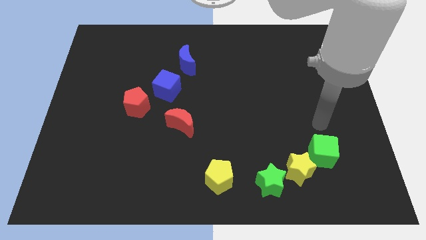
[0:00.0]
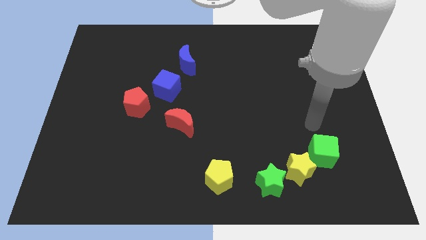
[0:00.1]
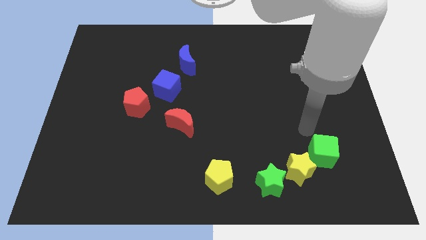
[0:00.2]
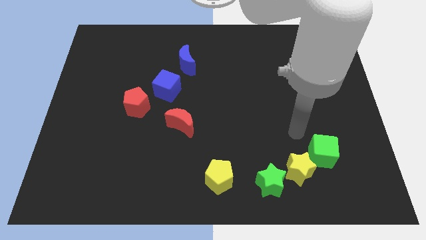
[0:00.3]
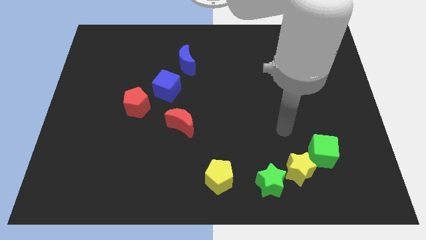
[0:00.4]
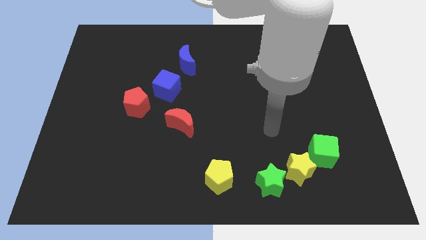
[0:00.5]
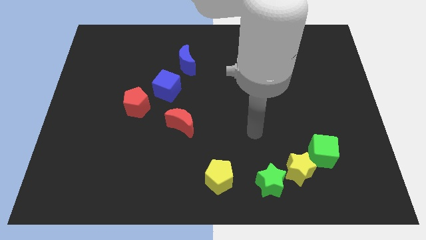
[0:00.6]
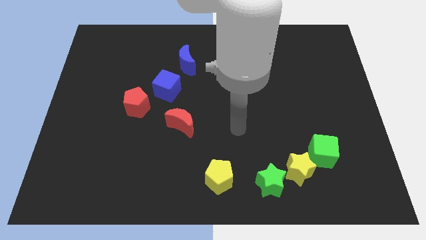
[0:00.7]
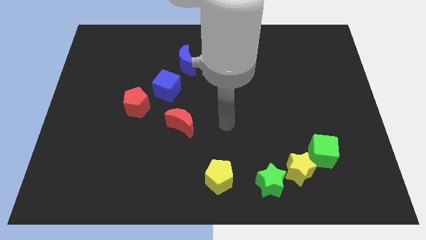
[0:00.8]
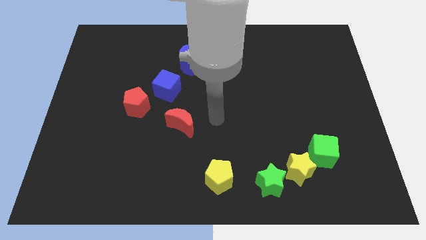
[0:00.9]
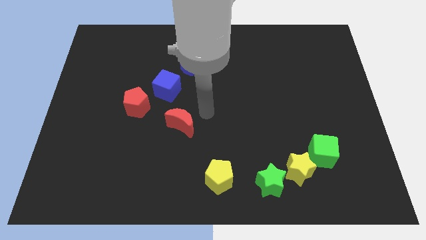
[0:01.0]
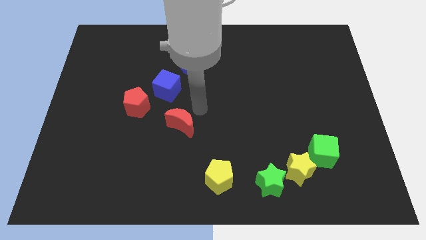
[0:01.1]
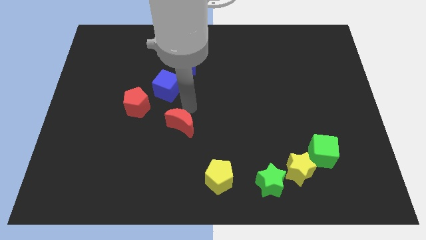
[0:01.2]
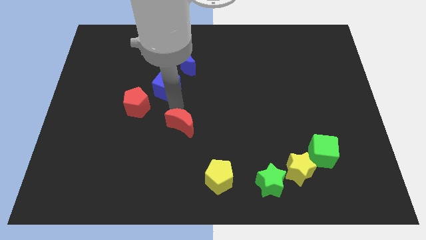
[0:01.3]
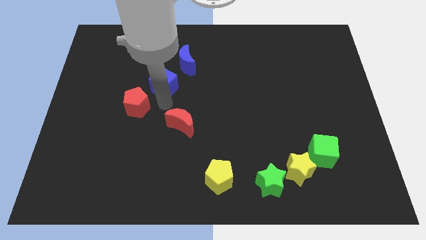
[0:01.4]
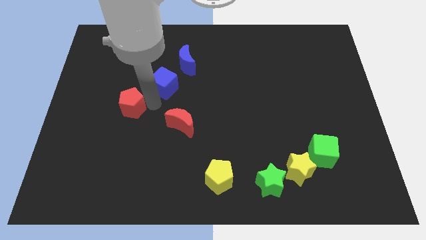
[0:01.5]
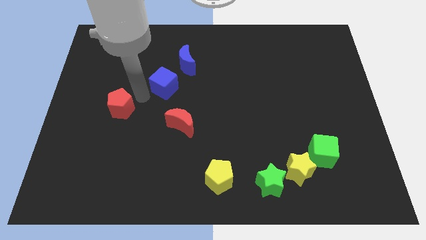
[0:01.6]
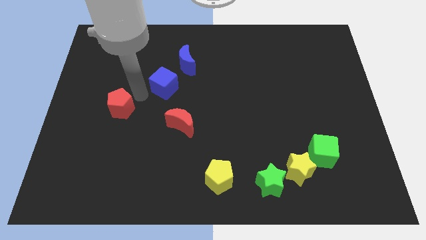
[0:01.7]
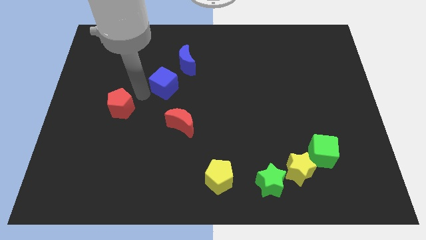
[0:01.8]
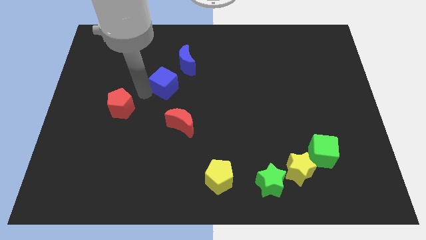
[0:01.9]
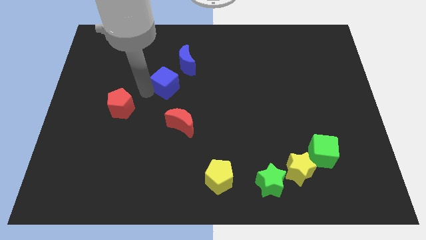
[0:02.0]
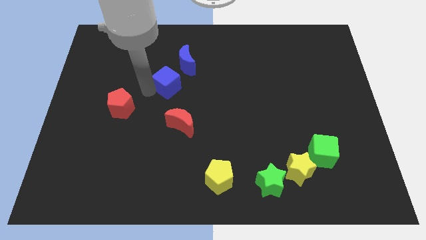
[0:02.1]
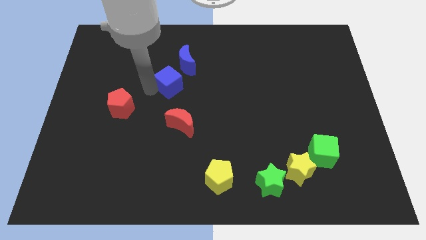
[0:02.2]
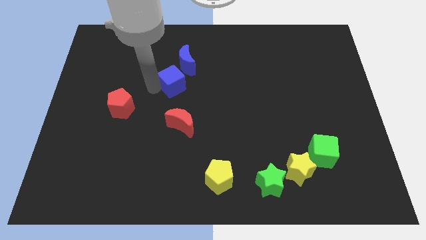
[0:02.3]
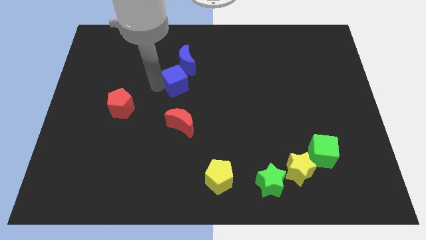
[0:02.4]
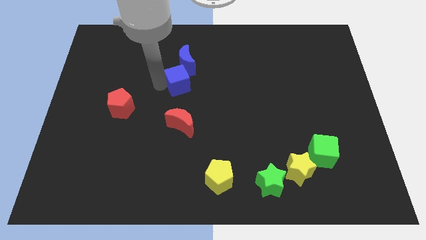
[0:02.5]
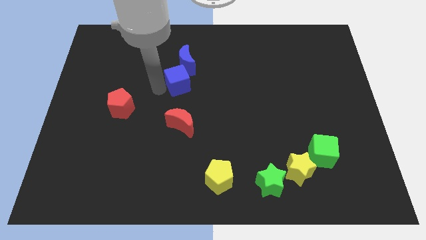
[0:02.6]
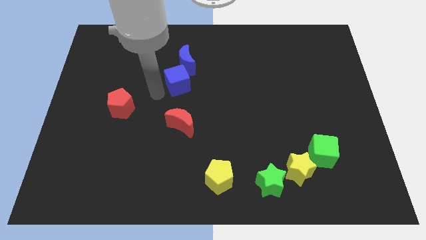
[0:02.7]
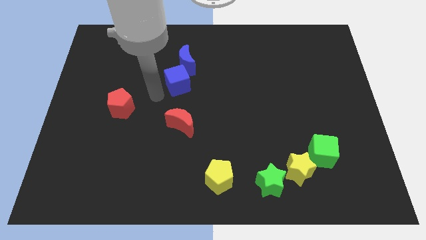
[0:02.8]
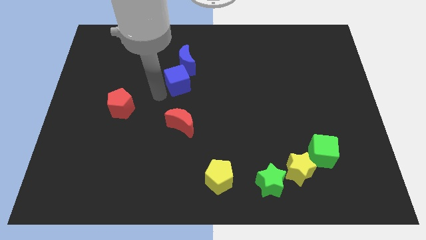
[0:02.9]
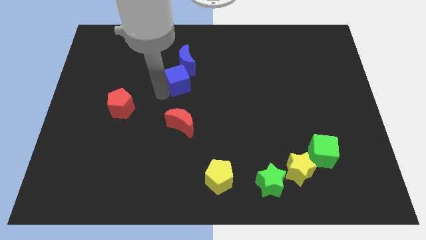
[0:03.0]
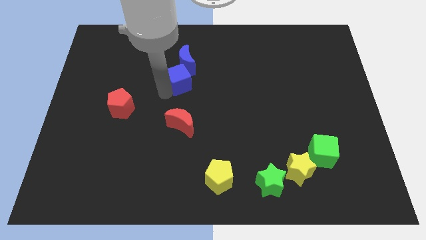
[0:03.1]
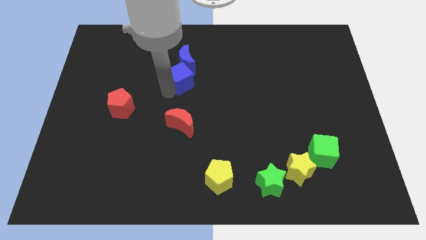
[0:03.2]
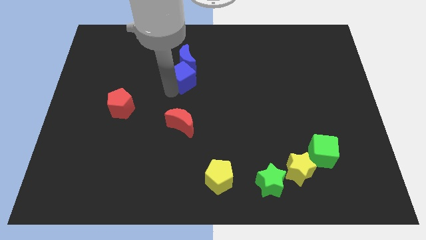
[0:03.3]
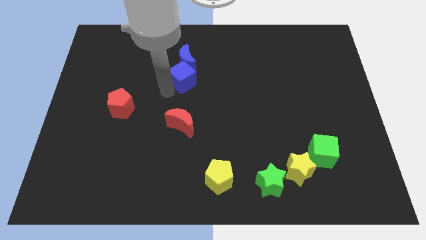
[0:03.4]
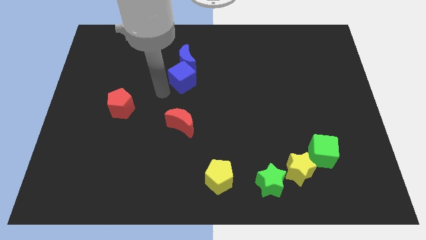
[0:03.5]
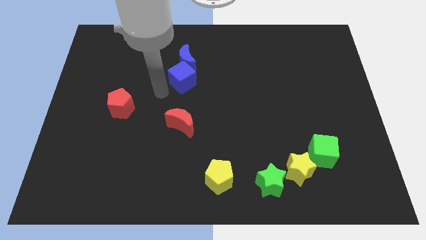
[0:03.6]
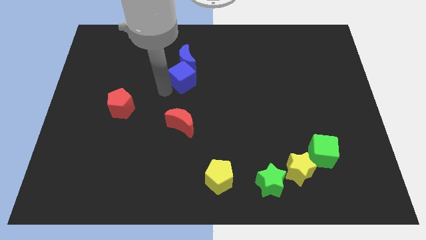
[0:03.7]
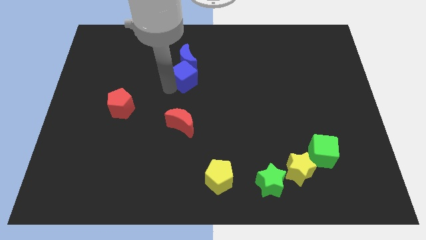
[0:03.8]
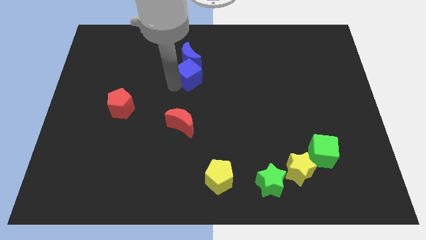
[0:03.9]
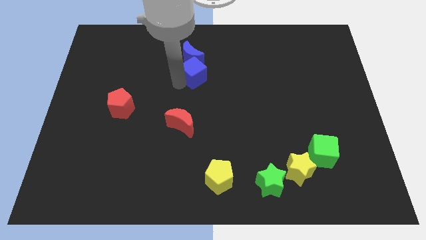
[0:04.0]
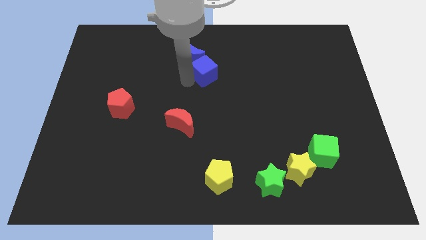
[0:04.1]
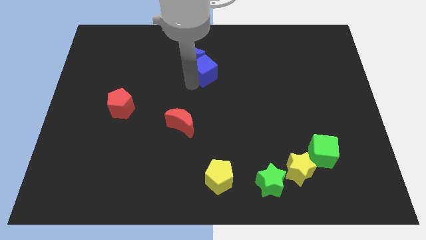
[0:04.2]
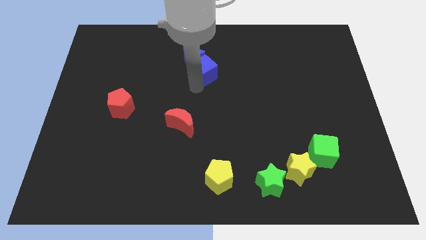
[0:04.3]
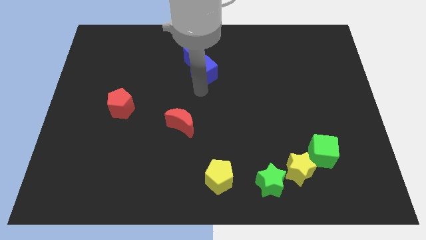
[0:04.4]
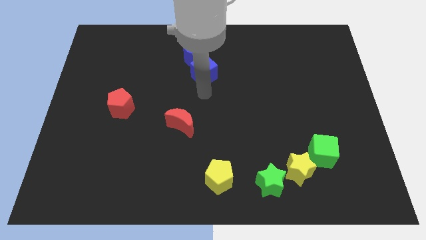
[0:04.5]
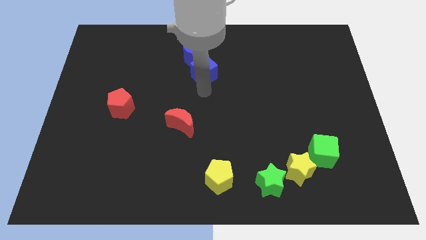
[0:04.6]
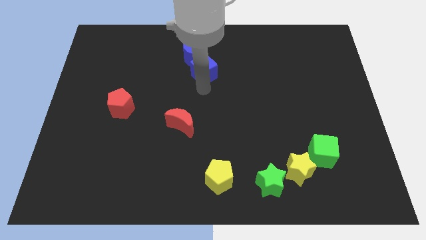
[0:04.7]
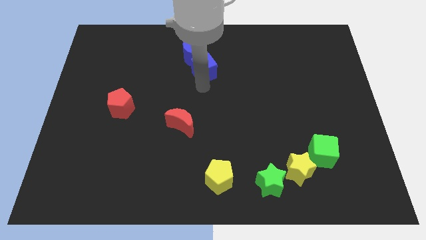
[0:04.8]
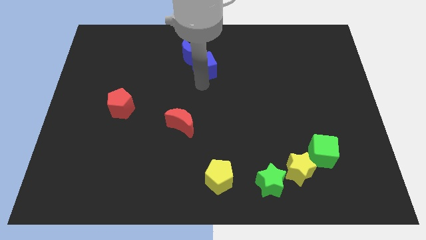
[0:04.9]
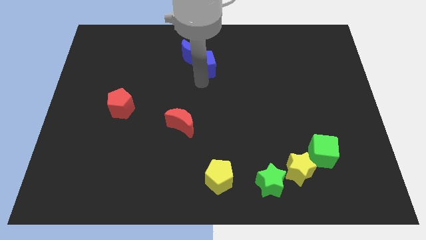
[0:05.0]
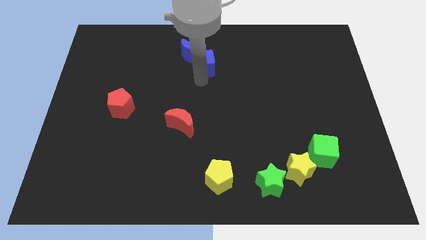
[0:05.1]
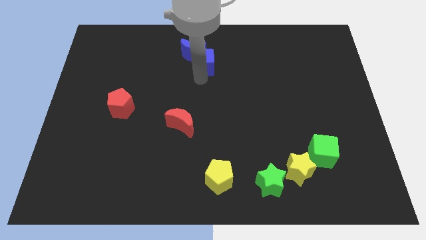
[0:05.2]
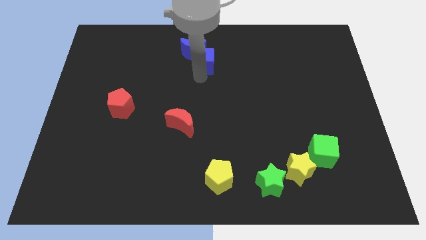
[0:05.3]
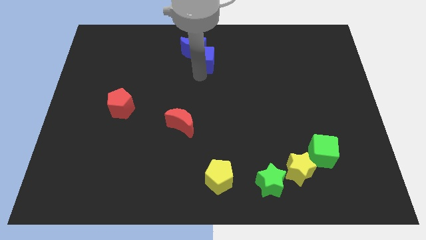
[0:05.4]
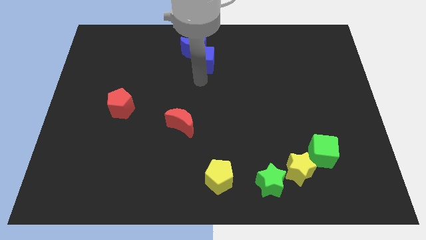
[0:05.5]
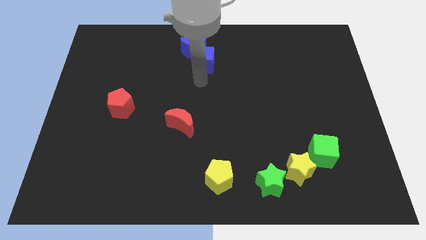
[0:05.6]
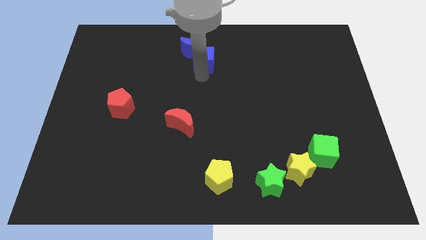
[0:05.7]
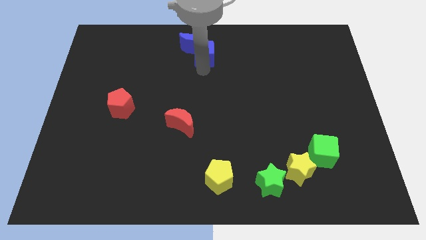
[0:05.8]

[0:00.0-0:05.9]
slide the blue cube to the towards your base

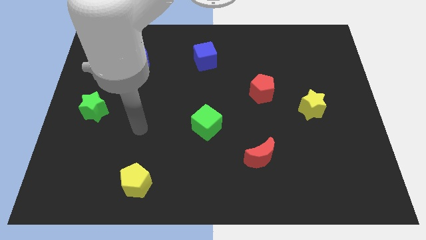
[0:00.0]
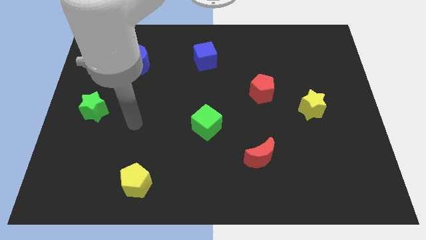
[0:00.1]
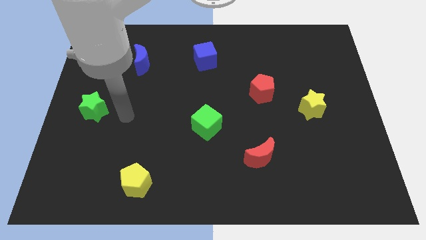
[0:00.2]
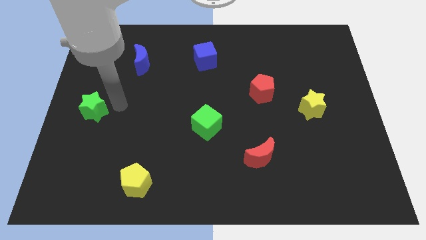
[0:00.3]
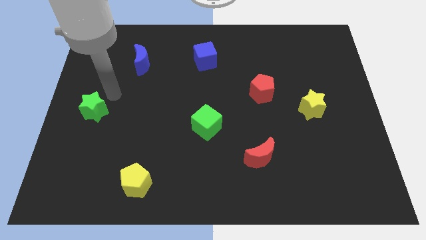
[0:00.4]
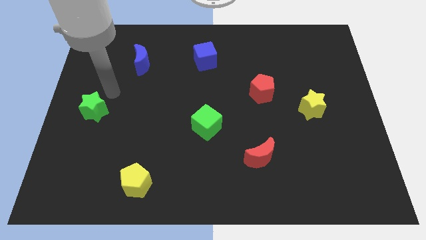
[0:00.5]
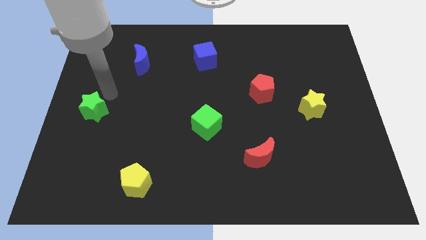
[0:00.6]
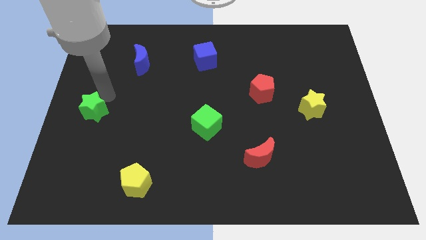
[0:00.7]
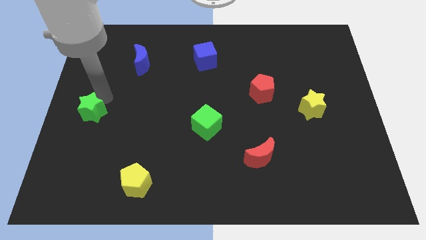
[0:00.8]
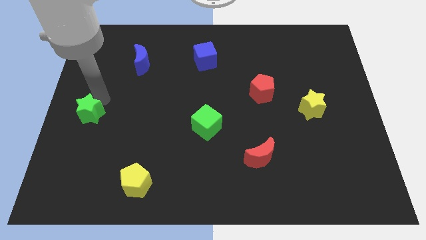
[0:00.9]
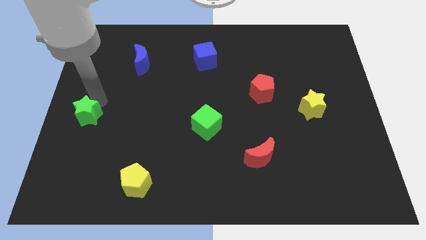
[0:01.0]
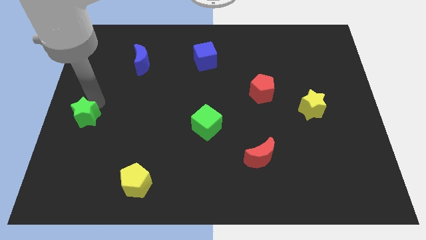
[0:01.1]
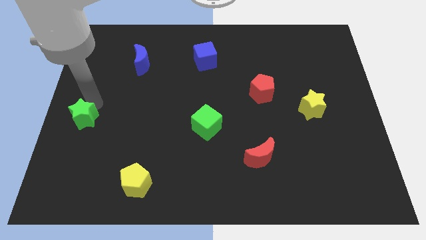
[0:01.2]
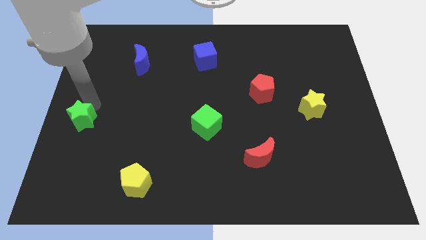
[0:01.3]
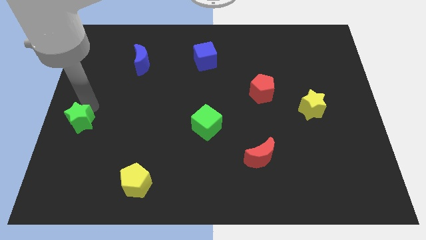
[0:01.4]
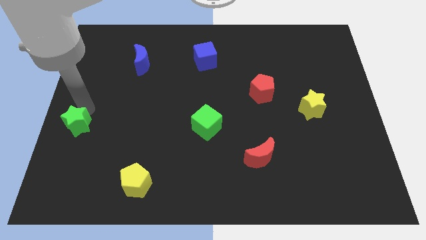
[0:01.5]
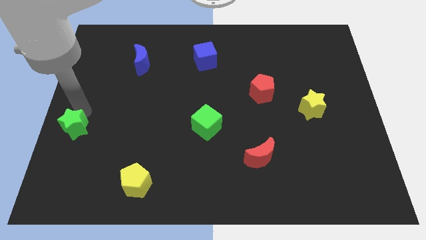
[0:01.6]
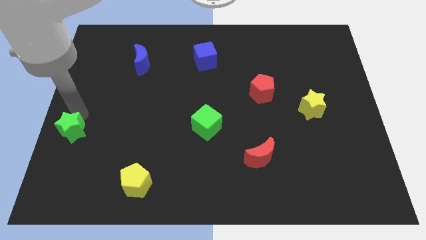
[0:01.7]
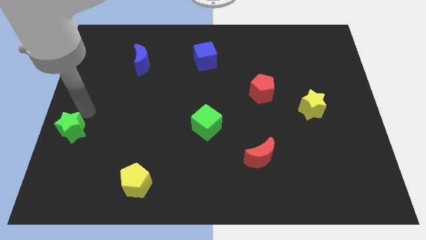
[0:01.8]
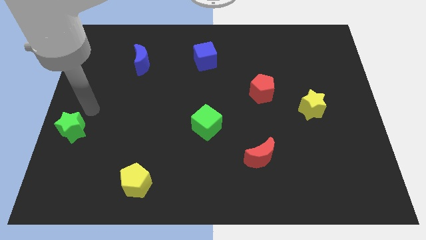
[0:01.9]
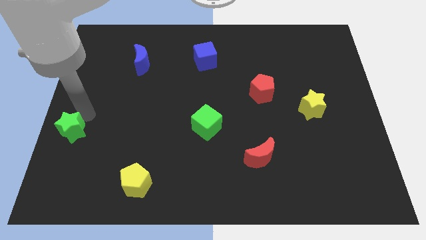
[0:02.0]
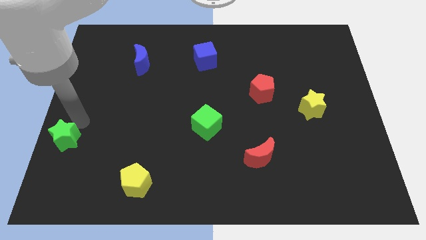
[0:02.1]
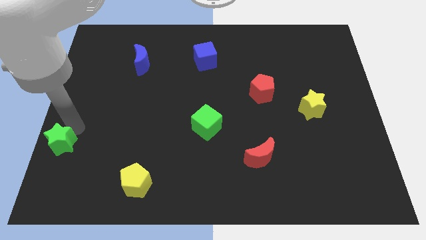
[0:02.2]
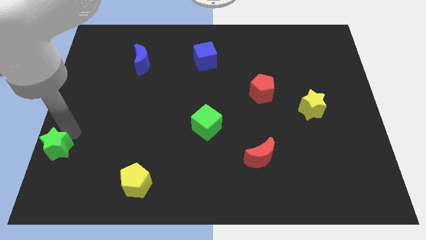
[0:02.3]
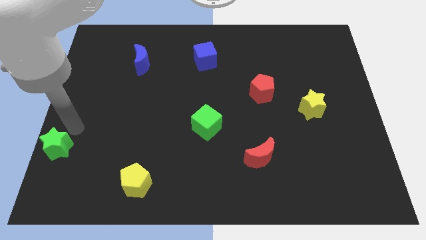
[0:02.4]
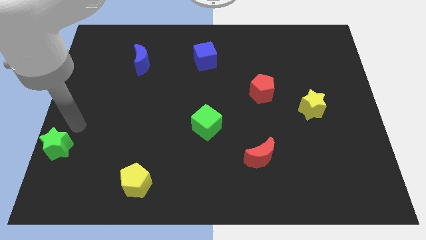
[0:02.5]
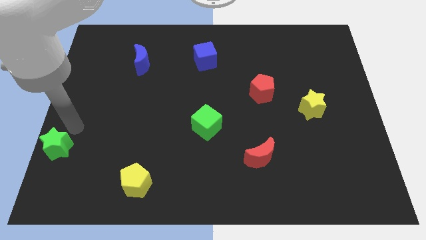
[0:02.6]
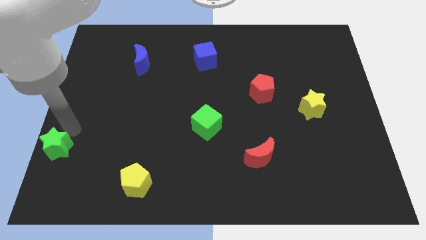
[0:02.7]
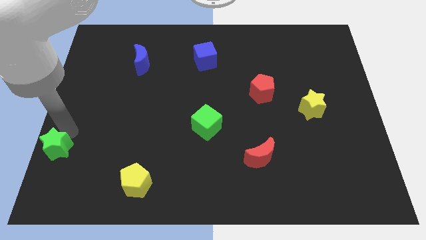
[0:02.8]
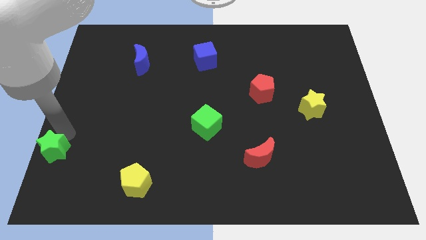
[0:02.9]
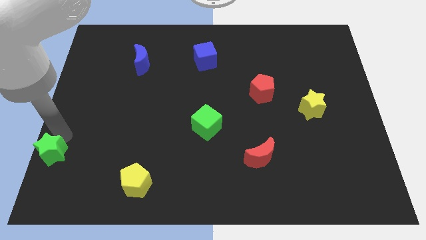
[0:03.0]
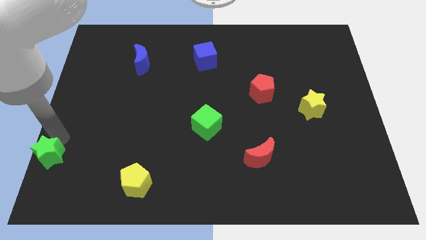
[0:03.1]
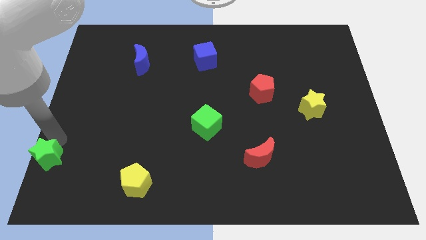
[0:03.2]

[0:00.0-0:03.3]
put the green star to the lower left corner
